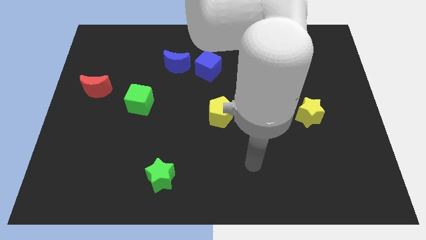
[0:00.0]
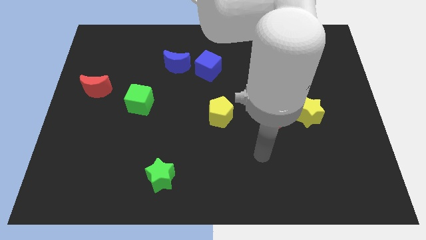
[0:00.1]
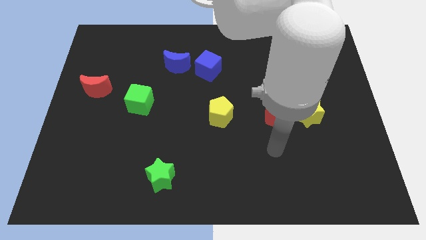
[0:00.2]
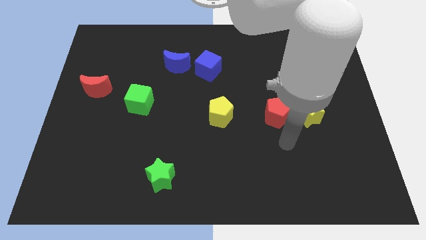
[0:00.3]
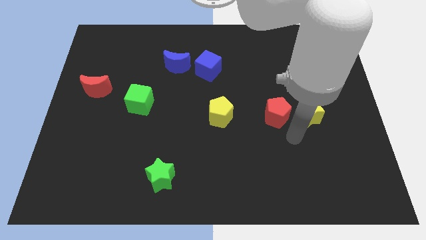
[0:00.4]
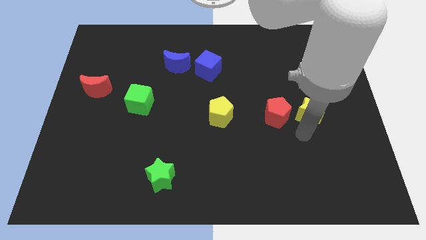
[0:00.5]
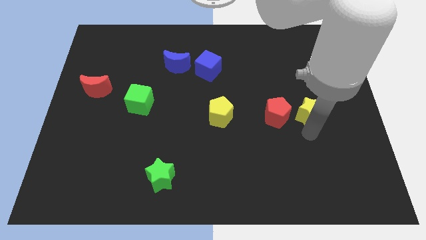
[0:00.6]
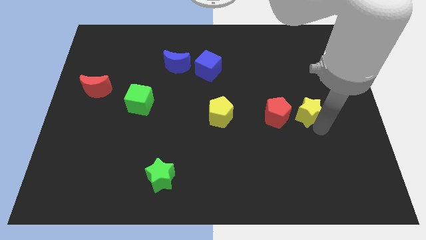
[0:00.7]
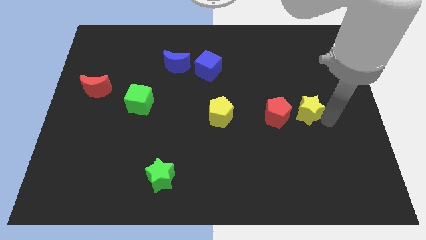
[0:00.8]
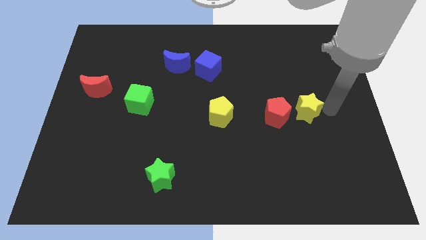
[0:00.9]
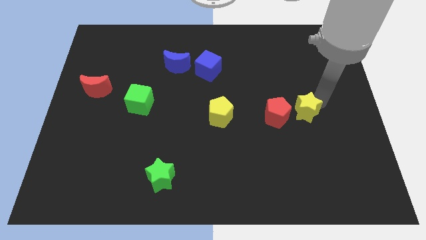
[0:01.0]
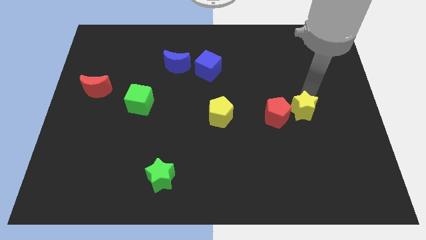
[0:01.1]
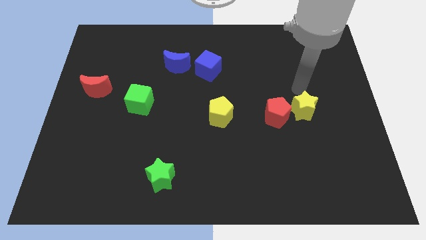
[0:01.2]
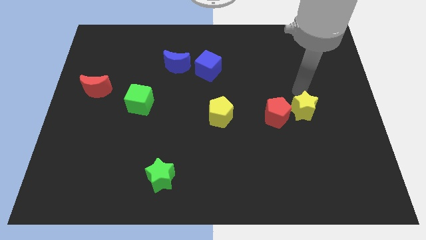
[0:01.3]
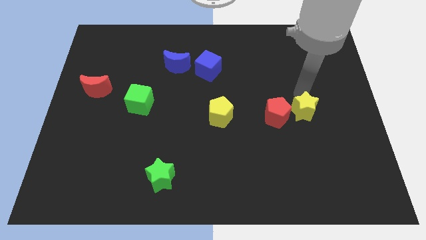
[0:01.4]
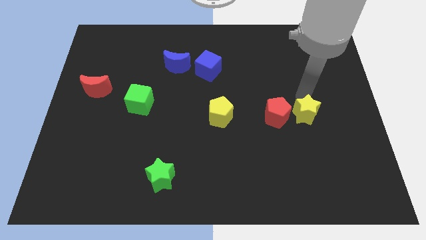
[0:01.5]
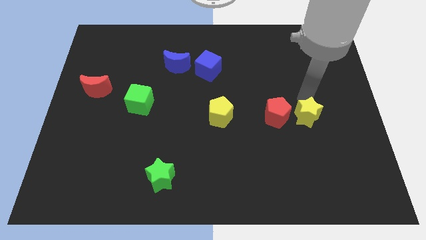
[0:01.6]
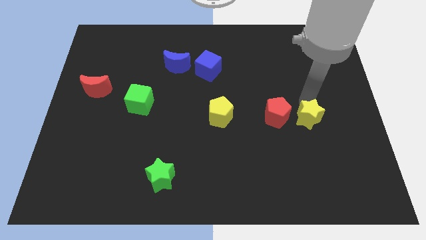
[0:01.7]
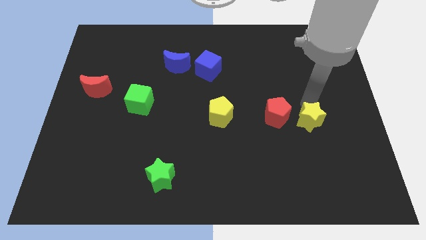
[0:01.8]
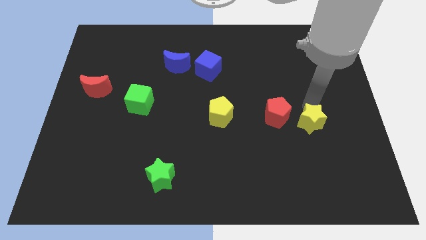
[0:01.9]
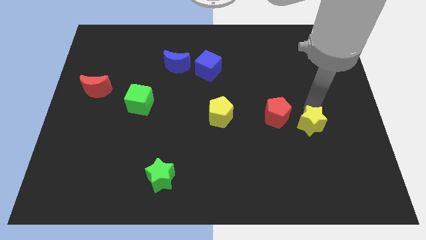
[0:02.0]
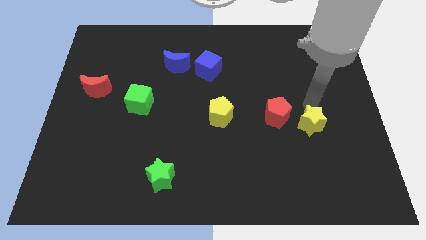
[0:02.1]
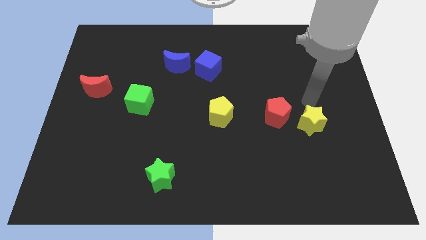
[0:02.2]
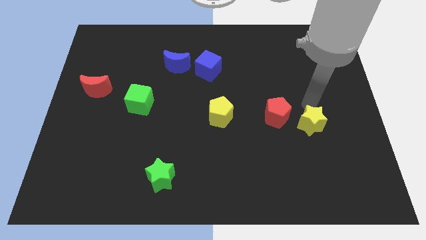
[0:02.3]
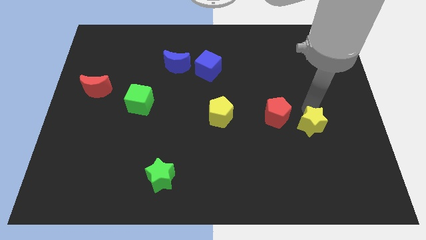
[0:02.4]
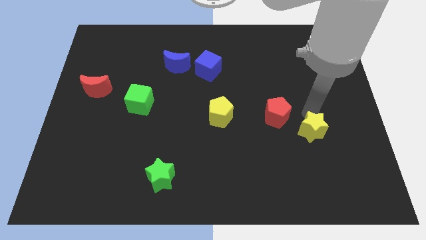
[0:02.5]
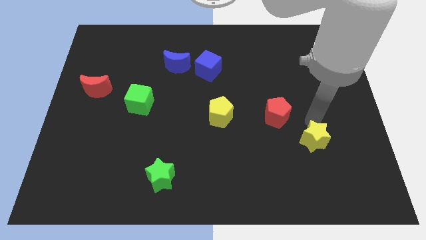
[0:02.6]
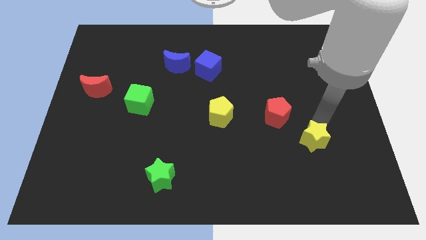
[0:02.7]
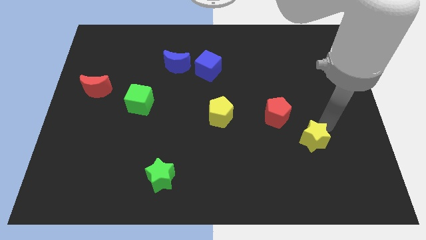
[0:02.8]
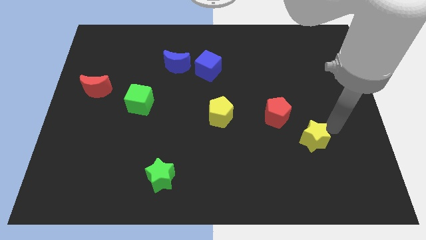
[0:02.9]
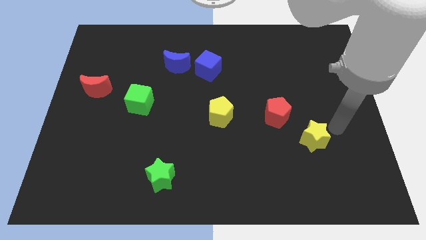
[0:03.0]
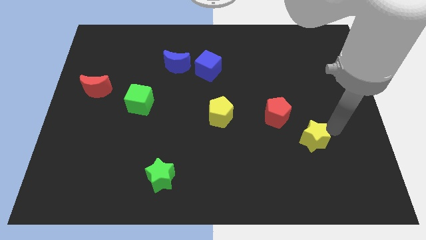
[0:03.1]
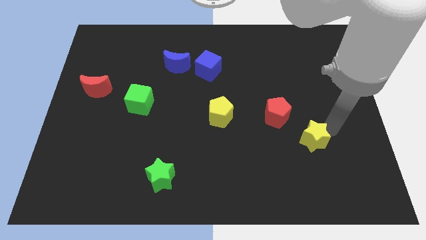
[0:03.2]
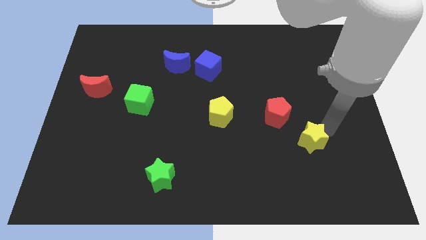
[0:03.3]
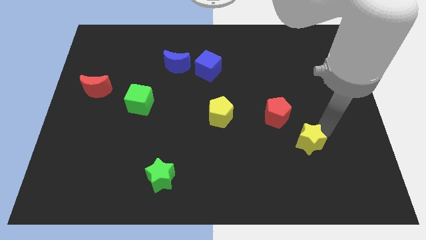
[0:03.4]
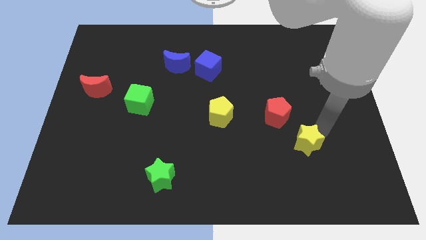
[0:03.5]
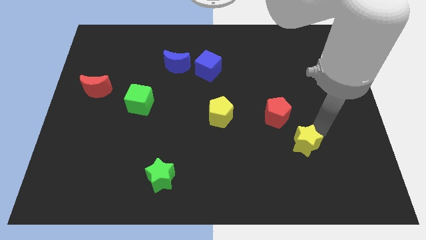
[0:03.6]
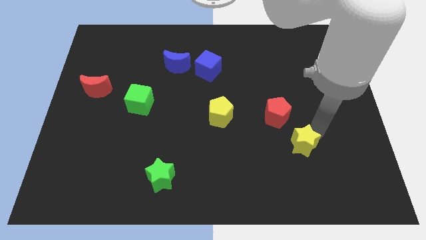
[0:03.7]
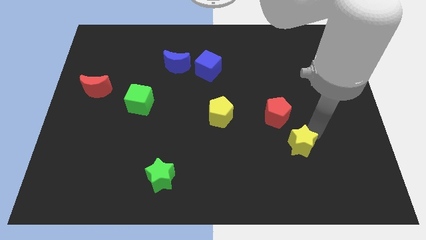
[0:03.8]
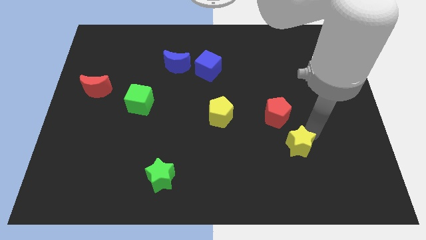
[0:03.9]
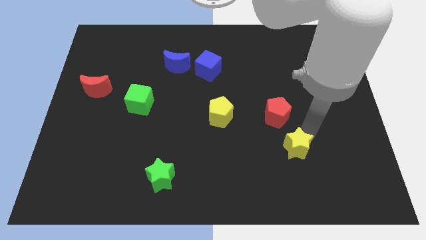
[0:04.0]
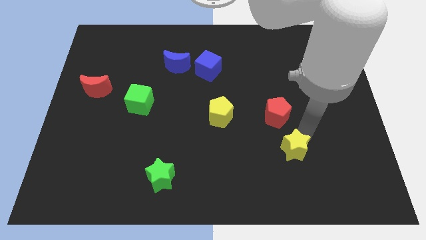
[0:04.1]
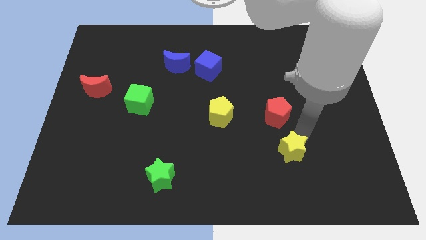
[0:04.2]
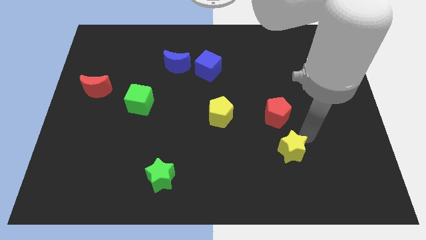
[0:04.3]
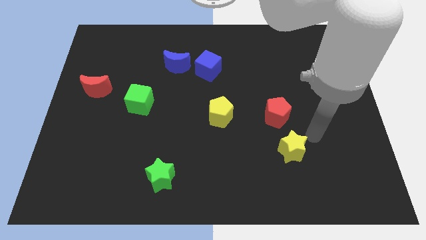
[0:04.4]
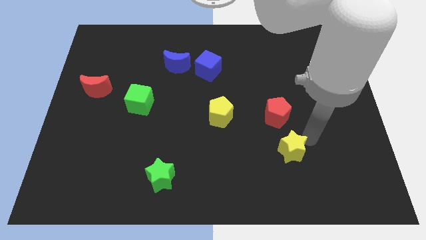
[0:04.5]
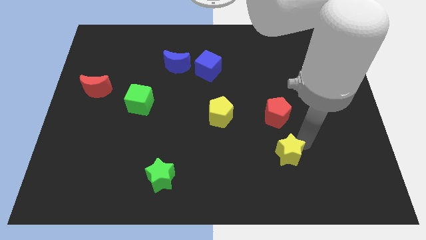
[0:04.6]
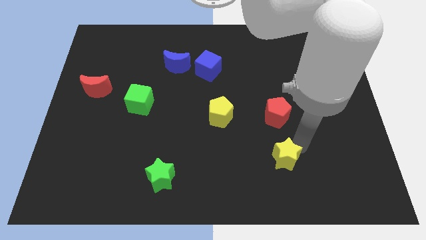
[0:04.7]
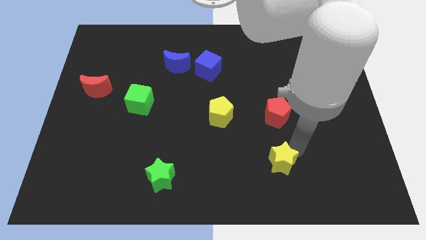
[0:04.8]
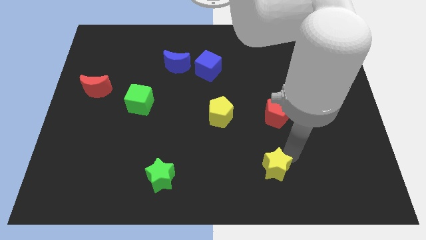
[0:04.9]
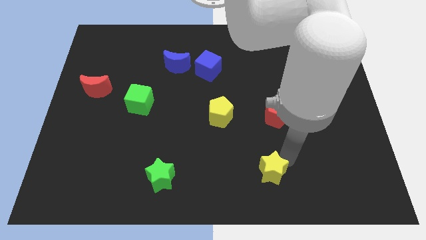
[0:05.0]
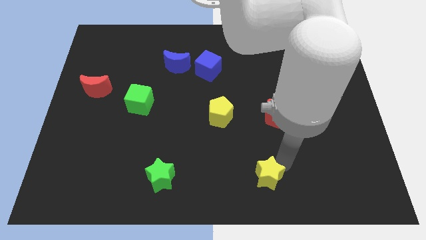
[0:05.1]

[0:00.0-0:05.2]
push the yellow star to the bottom side

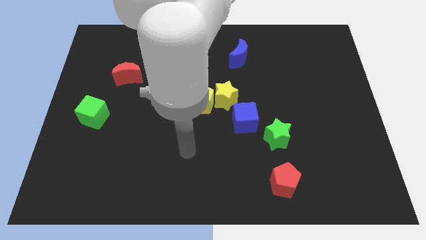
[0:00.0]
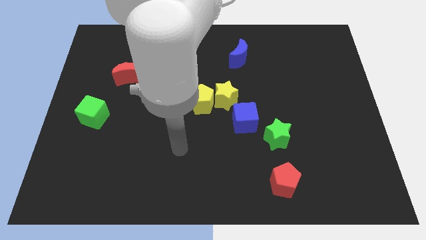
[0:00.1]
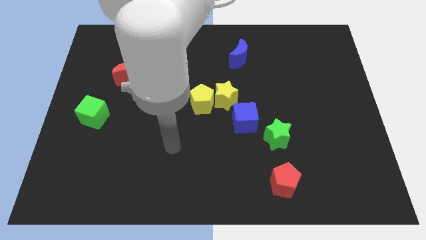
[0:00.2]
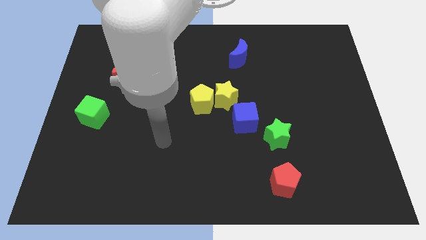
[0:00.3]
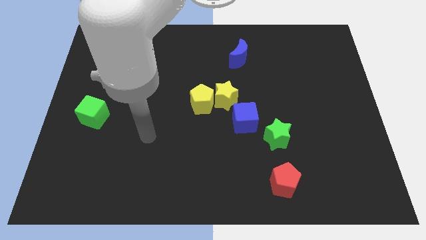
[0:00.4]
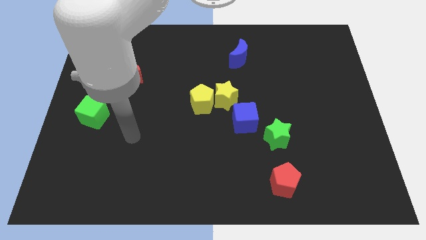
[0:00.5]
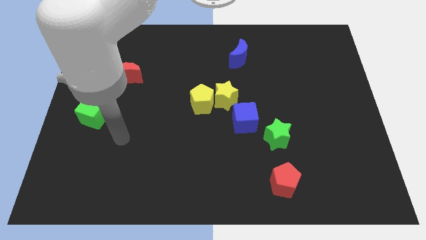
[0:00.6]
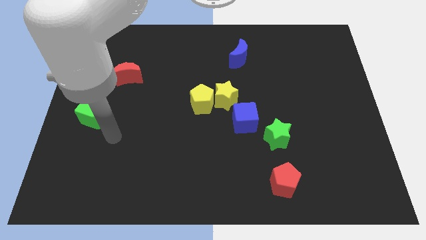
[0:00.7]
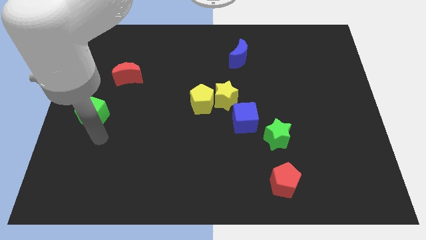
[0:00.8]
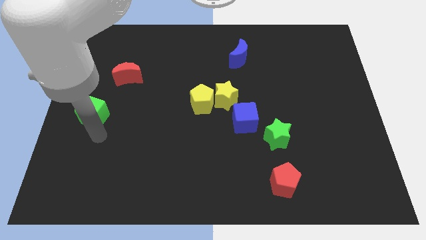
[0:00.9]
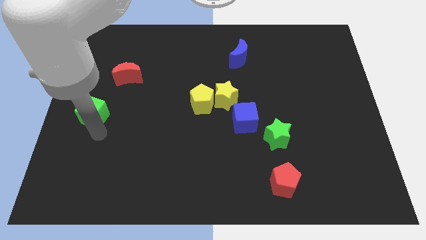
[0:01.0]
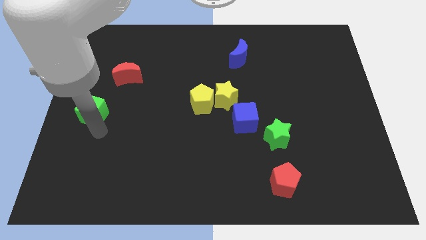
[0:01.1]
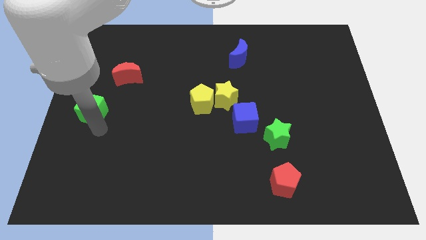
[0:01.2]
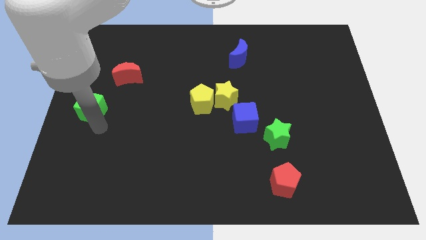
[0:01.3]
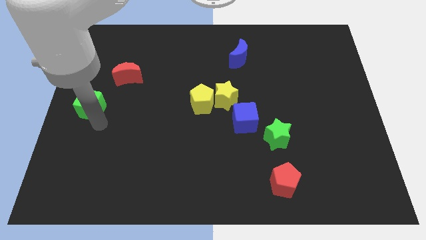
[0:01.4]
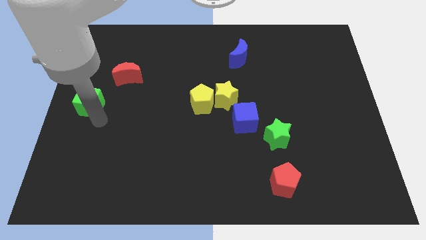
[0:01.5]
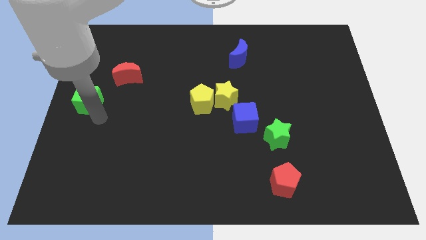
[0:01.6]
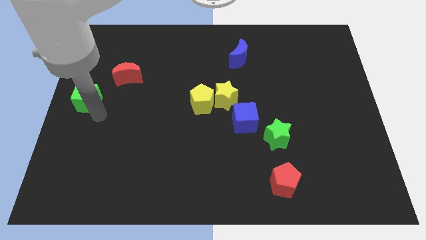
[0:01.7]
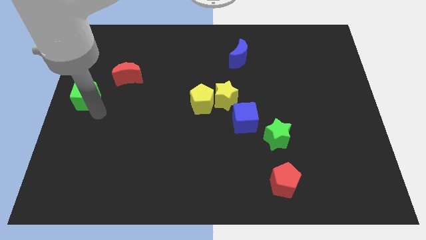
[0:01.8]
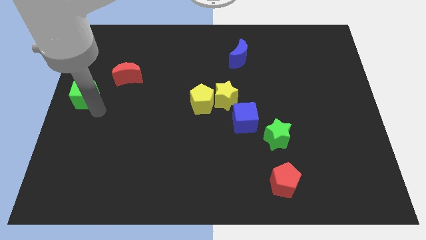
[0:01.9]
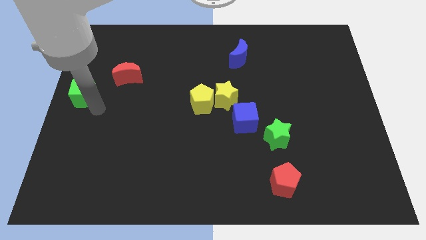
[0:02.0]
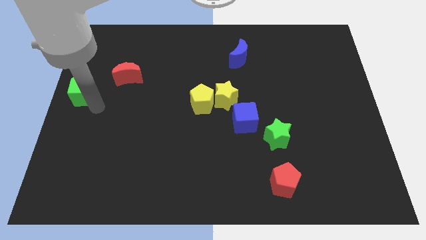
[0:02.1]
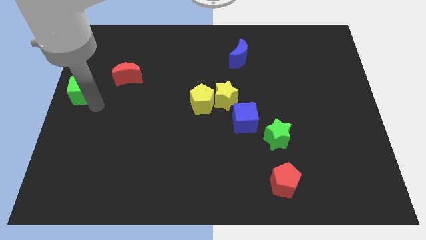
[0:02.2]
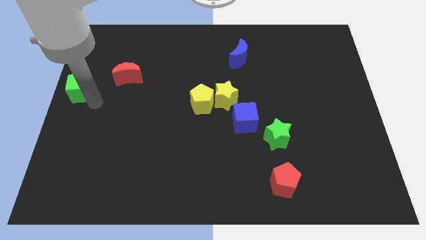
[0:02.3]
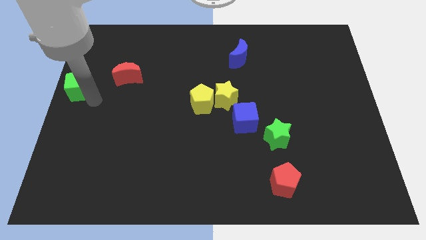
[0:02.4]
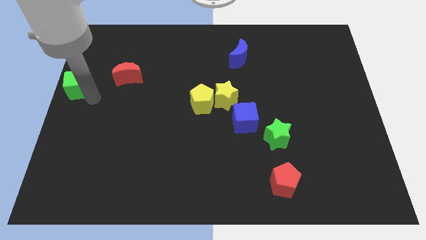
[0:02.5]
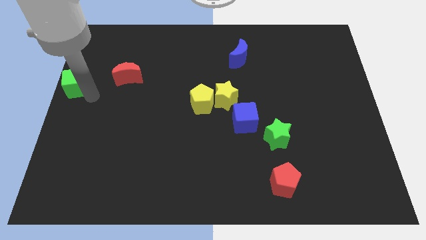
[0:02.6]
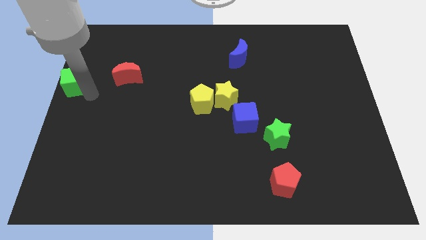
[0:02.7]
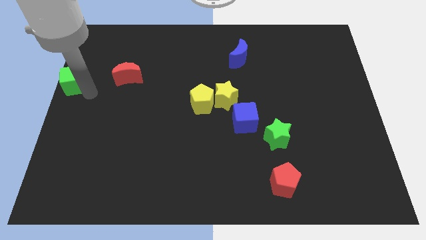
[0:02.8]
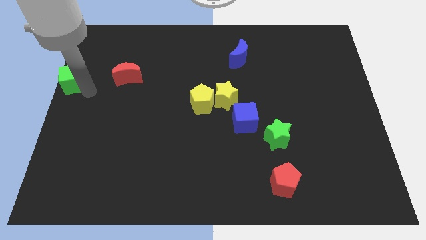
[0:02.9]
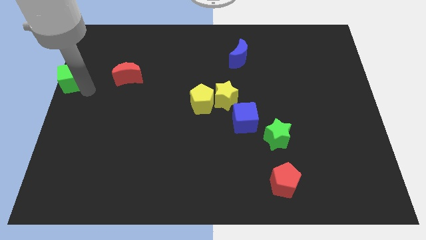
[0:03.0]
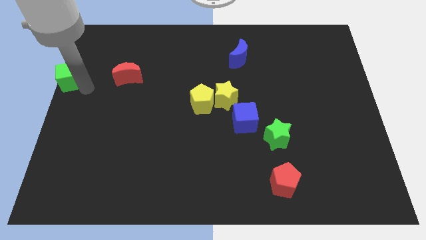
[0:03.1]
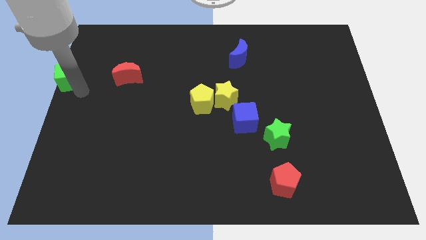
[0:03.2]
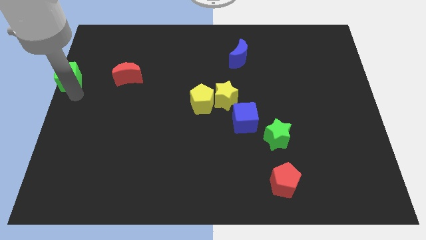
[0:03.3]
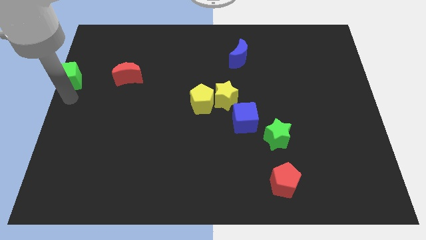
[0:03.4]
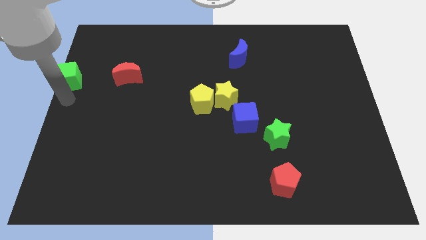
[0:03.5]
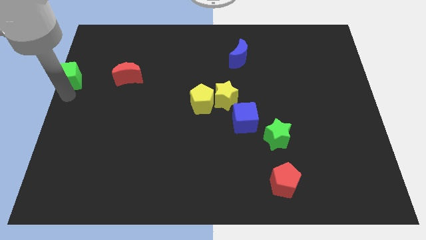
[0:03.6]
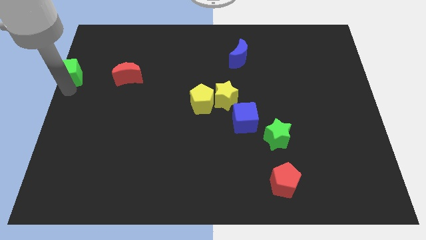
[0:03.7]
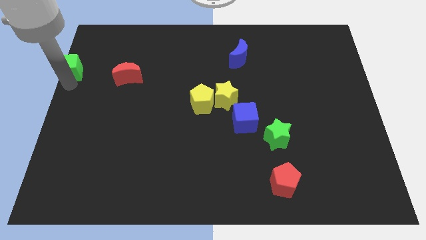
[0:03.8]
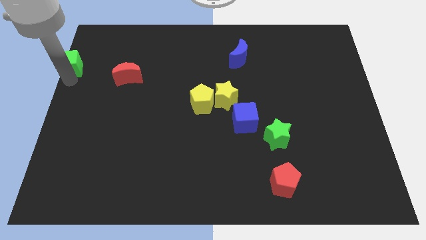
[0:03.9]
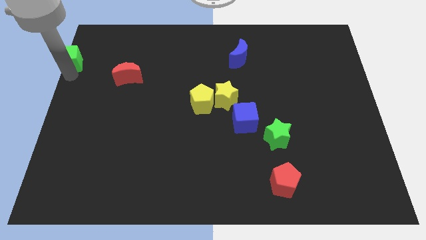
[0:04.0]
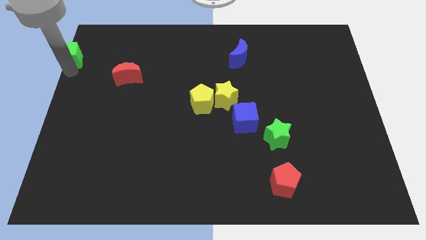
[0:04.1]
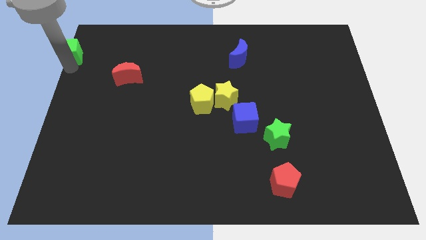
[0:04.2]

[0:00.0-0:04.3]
put the green cube to the top left of the board
